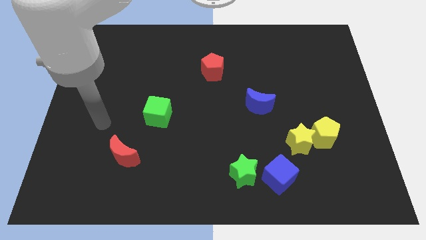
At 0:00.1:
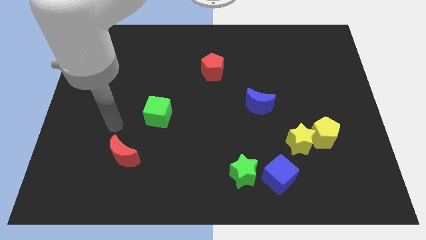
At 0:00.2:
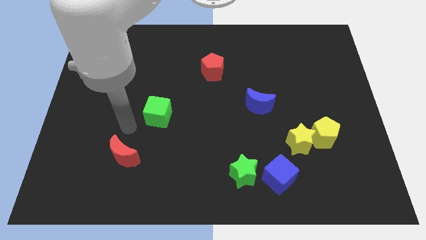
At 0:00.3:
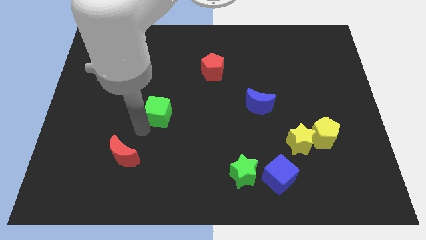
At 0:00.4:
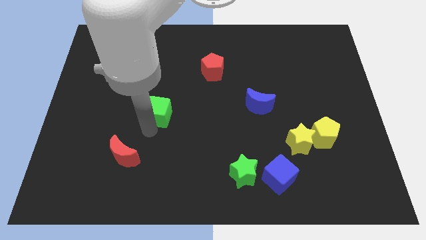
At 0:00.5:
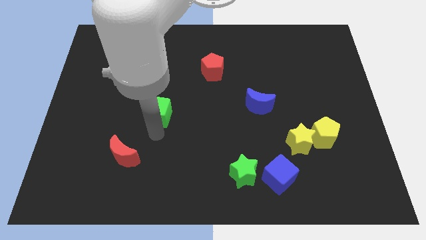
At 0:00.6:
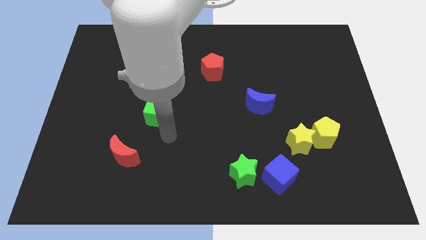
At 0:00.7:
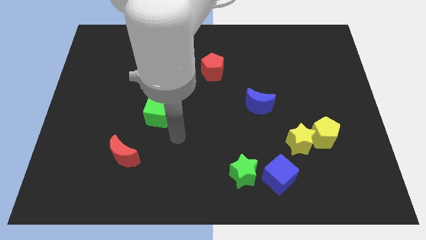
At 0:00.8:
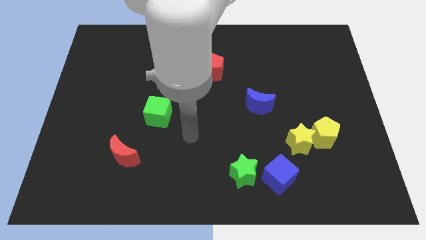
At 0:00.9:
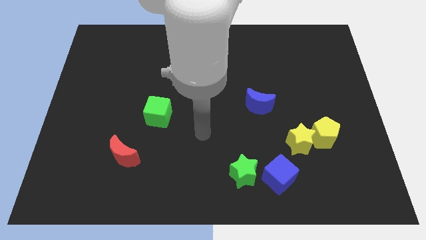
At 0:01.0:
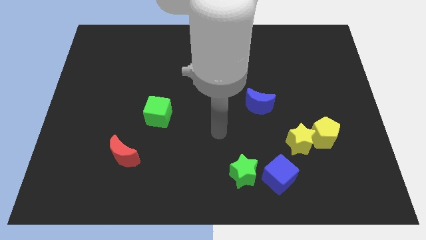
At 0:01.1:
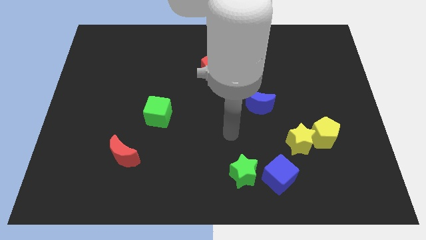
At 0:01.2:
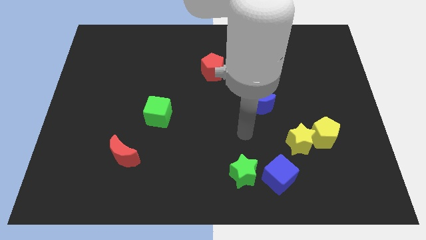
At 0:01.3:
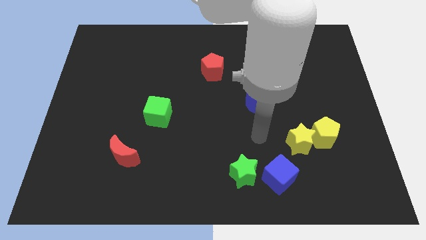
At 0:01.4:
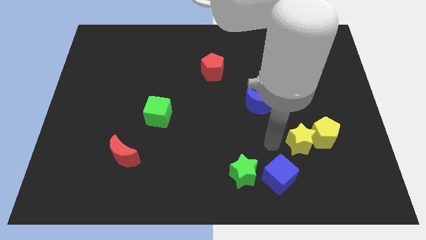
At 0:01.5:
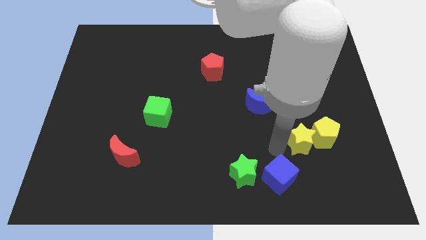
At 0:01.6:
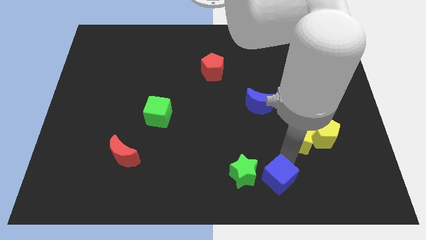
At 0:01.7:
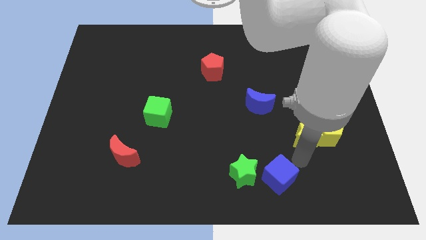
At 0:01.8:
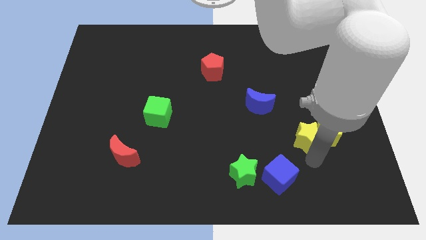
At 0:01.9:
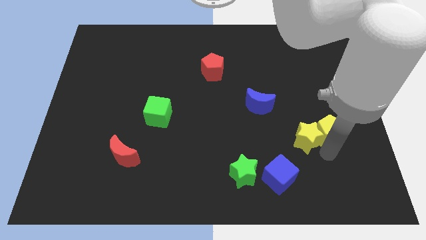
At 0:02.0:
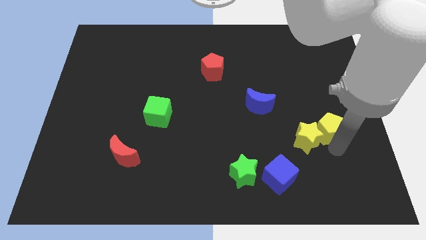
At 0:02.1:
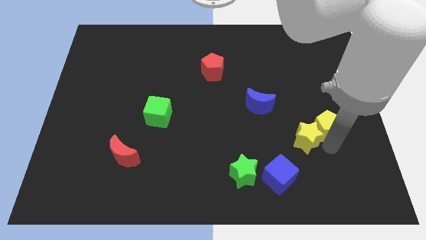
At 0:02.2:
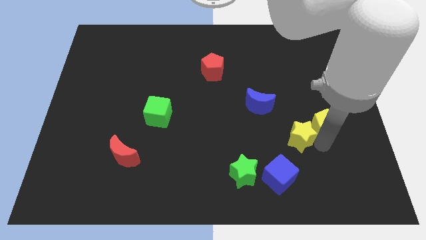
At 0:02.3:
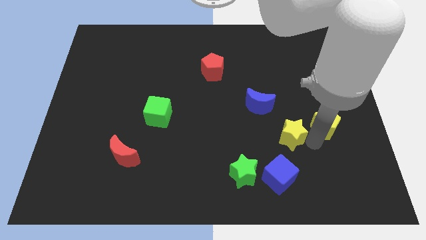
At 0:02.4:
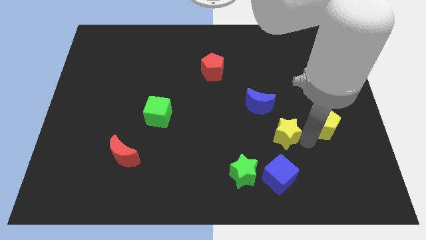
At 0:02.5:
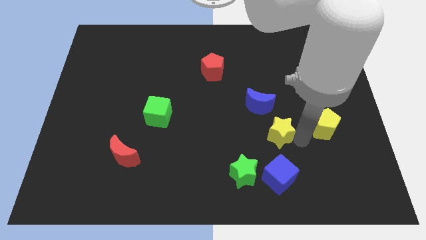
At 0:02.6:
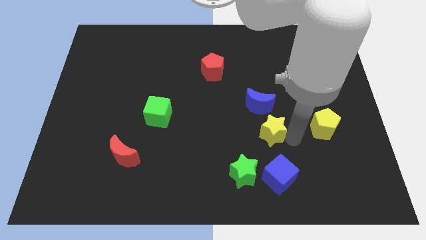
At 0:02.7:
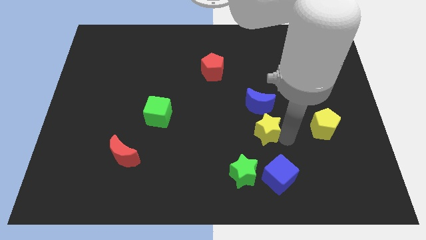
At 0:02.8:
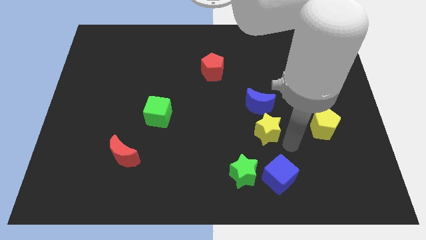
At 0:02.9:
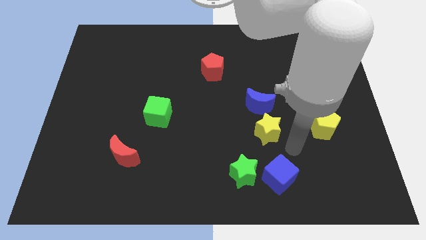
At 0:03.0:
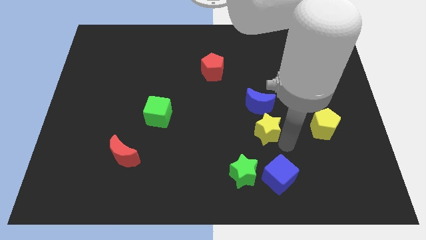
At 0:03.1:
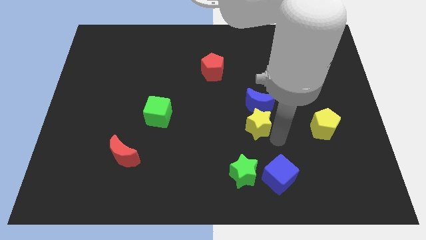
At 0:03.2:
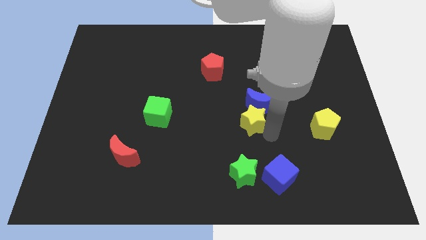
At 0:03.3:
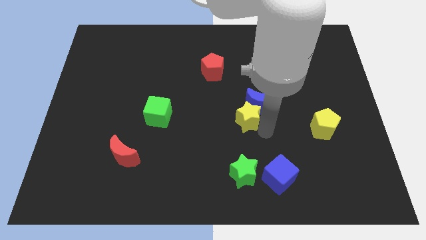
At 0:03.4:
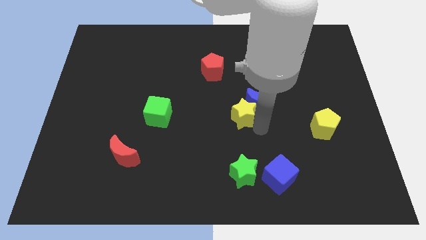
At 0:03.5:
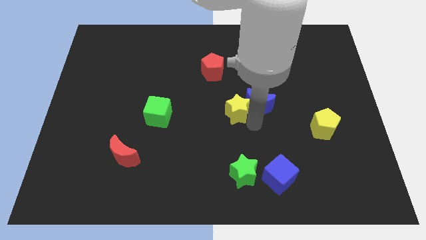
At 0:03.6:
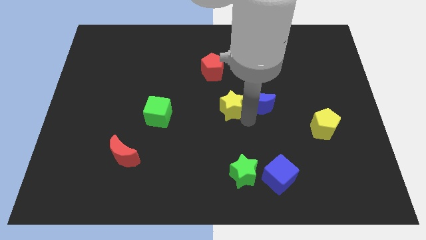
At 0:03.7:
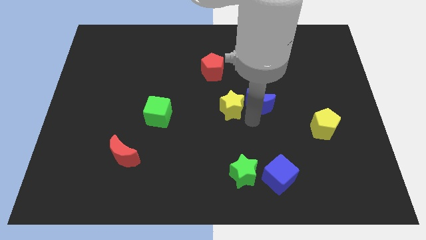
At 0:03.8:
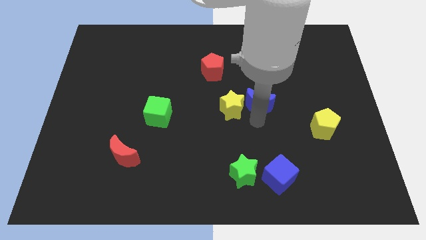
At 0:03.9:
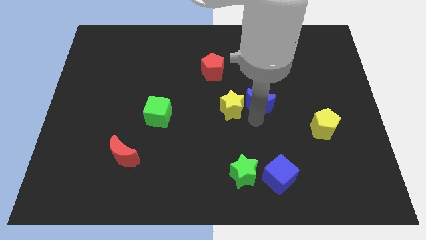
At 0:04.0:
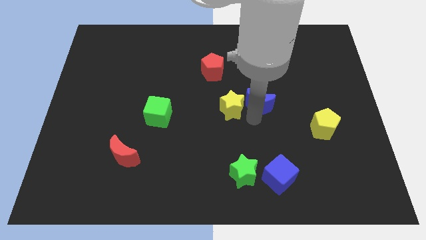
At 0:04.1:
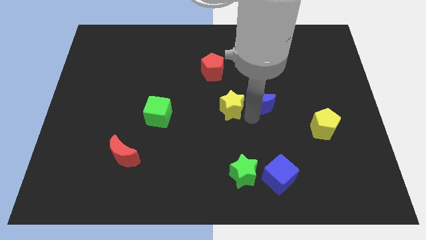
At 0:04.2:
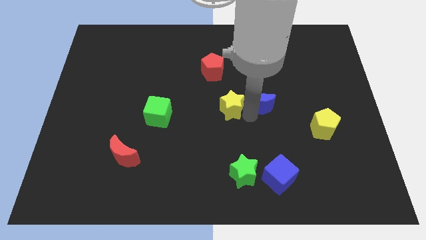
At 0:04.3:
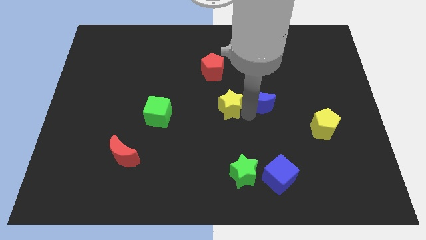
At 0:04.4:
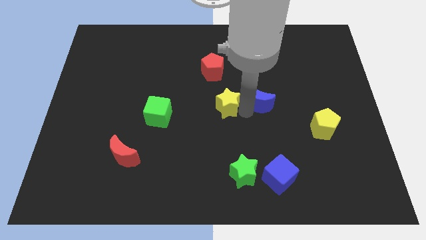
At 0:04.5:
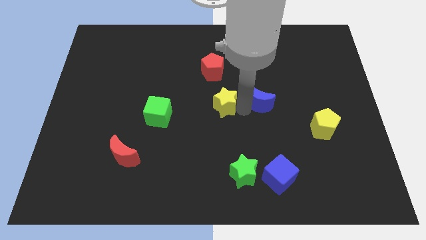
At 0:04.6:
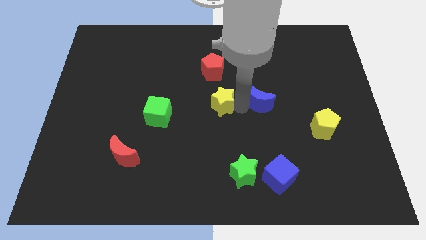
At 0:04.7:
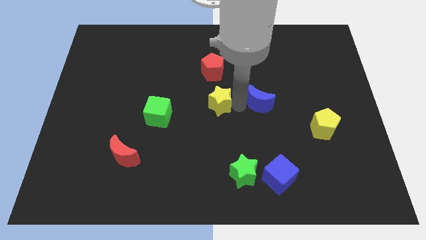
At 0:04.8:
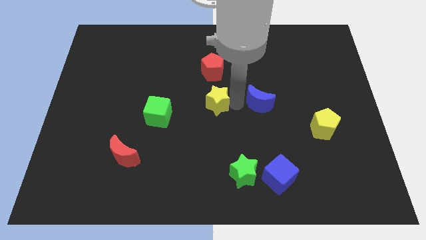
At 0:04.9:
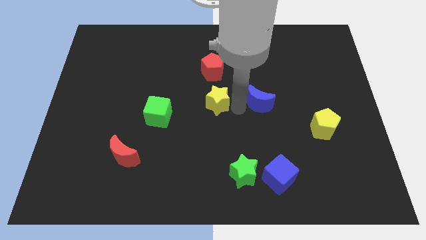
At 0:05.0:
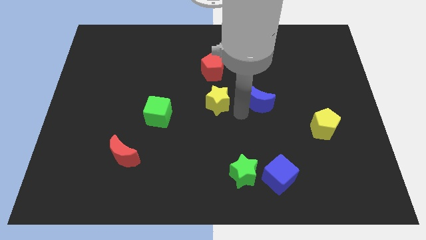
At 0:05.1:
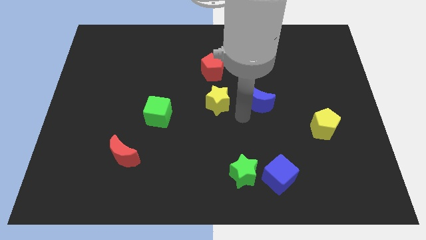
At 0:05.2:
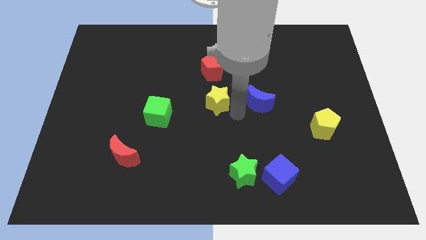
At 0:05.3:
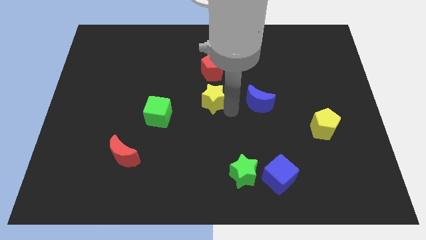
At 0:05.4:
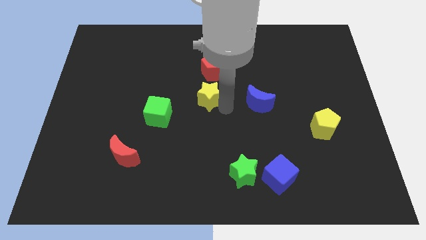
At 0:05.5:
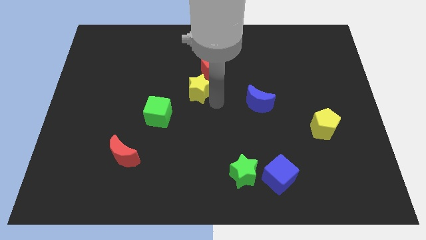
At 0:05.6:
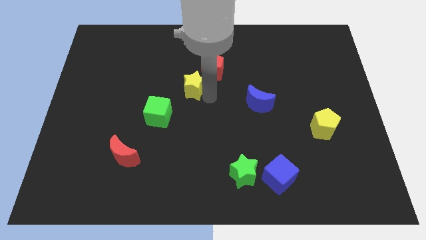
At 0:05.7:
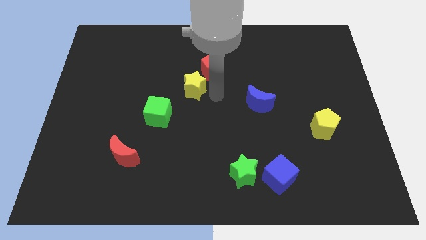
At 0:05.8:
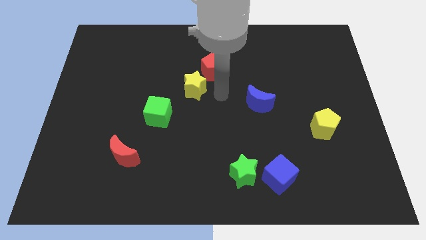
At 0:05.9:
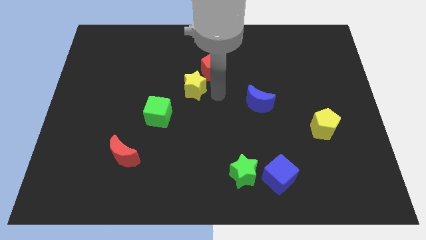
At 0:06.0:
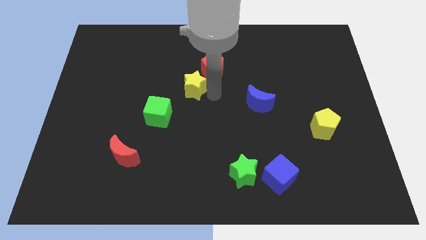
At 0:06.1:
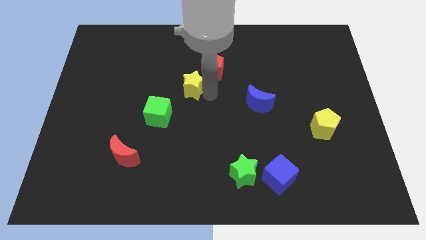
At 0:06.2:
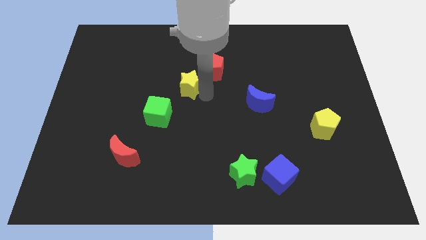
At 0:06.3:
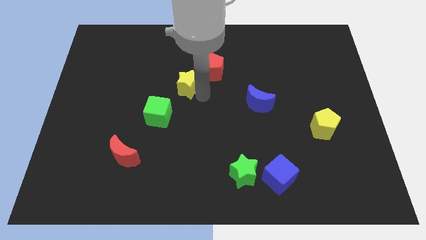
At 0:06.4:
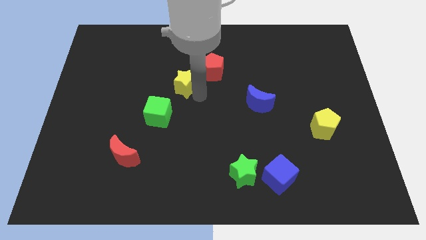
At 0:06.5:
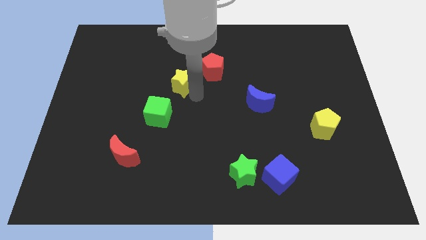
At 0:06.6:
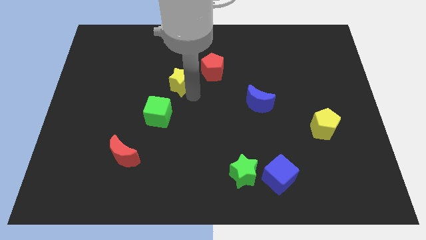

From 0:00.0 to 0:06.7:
move the yellow star to the top of the green cube

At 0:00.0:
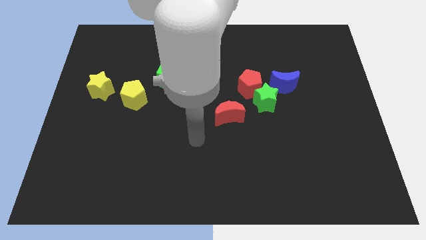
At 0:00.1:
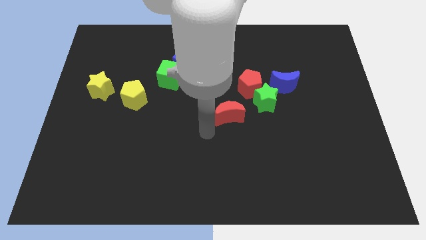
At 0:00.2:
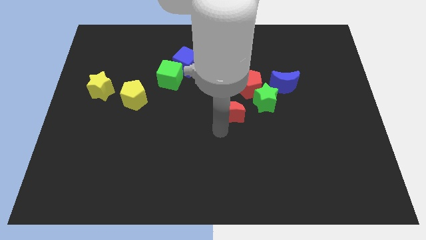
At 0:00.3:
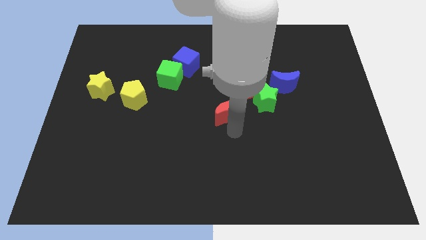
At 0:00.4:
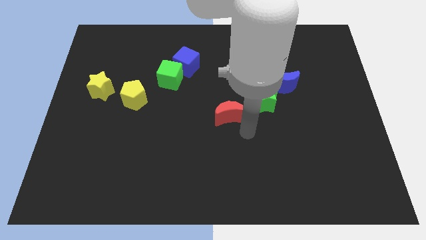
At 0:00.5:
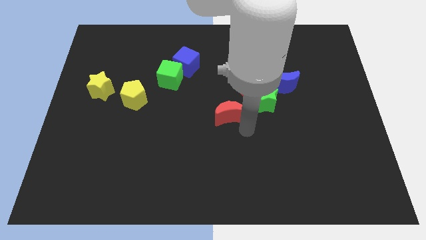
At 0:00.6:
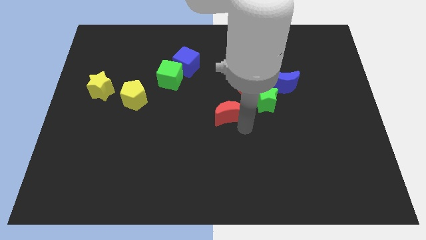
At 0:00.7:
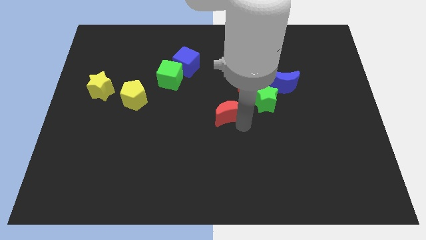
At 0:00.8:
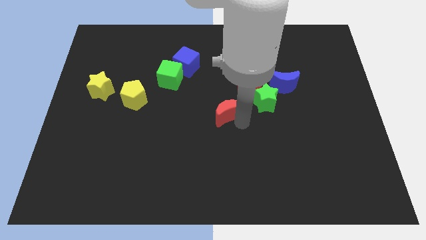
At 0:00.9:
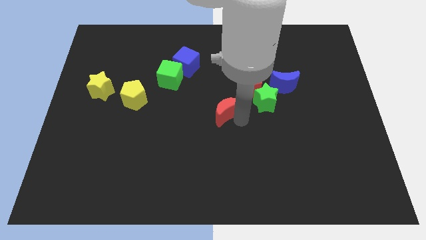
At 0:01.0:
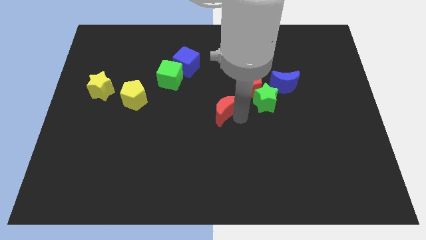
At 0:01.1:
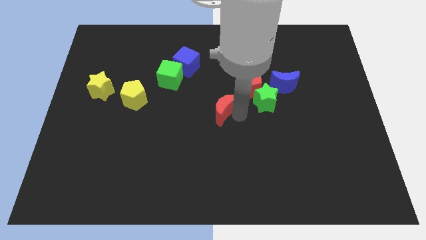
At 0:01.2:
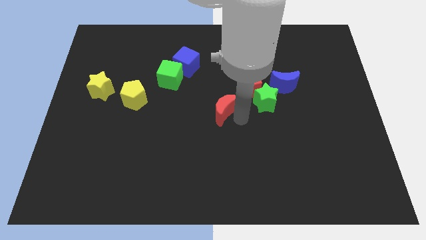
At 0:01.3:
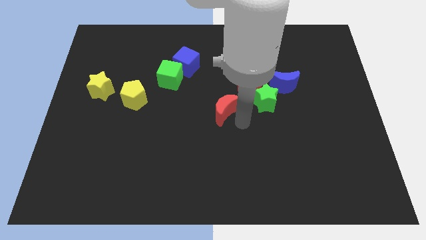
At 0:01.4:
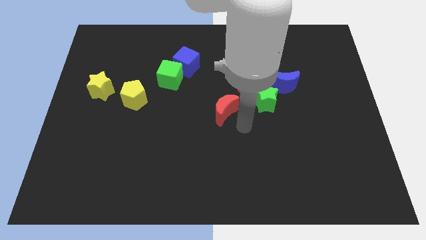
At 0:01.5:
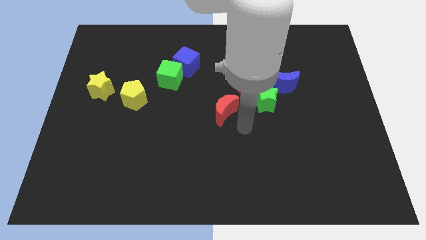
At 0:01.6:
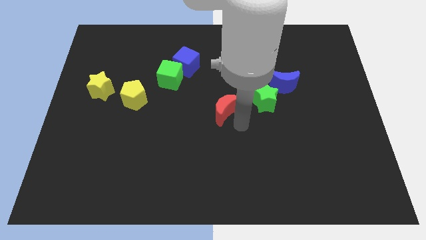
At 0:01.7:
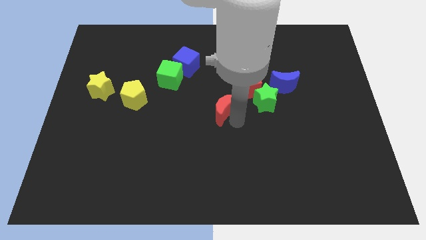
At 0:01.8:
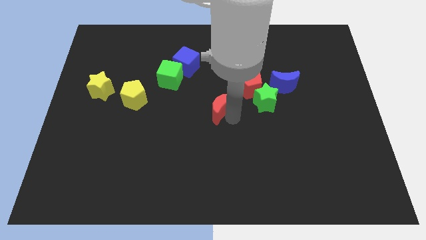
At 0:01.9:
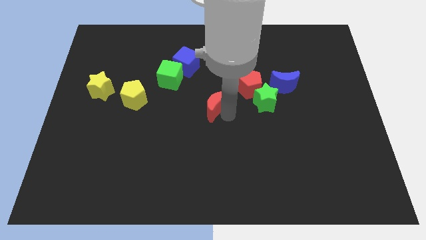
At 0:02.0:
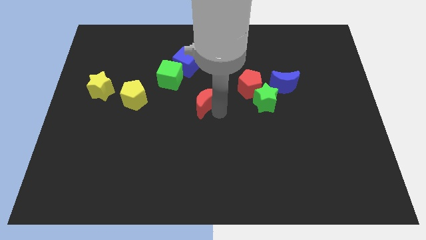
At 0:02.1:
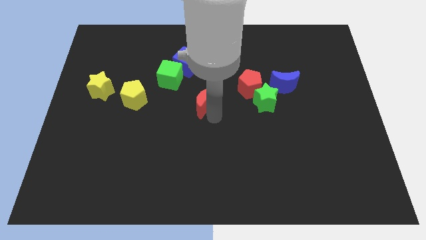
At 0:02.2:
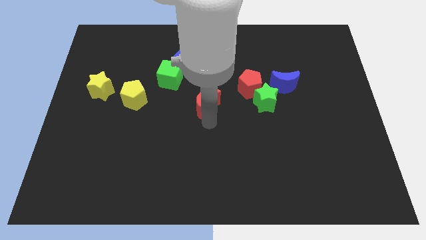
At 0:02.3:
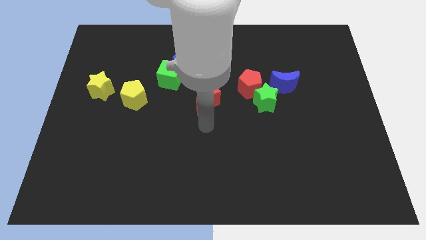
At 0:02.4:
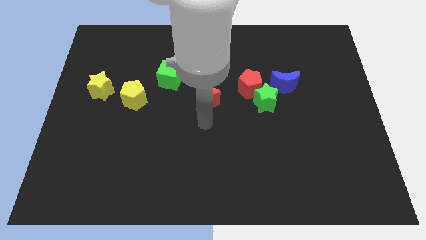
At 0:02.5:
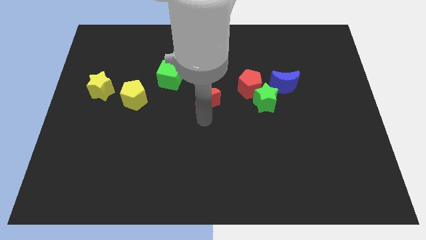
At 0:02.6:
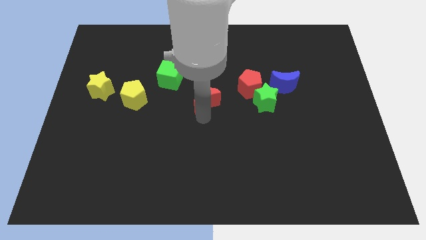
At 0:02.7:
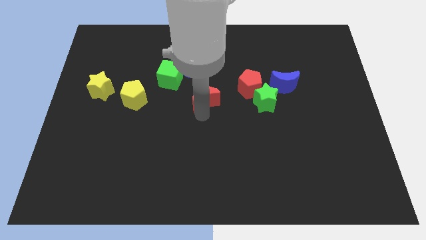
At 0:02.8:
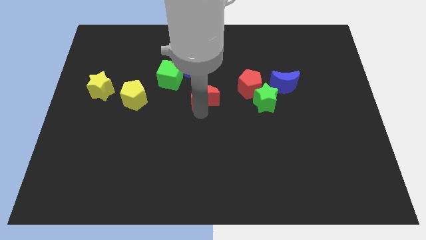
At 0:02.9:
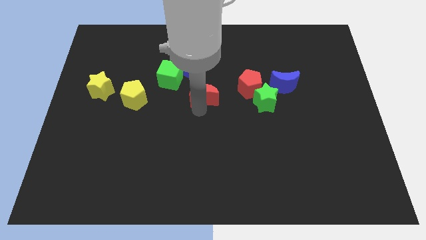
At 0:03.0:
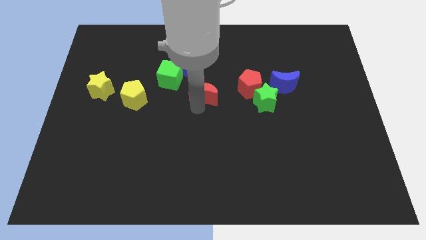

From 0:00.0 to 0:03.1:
move the red moon to the bottom right of the blue cube
